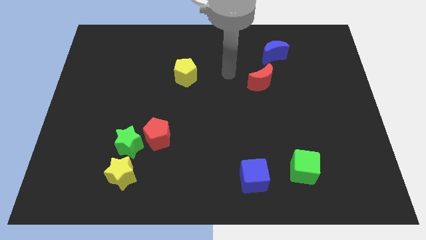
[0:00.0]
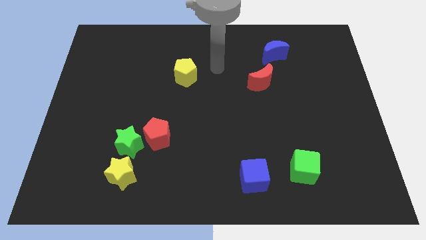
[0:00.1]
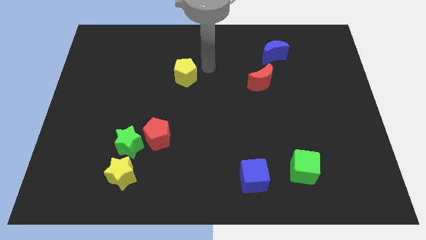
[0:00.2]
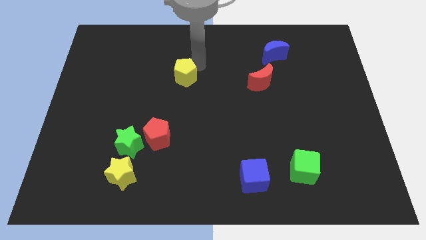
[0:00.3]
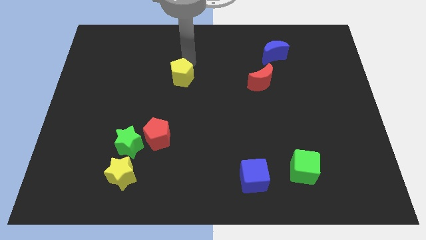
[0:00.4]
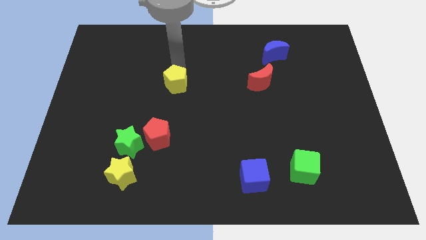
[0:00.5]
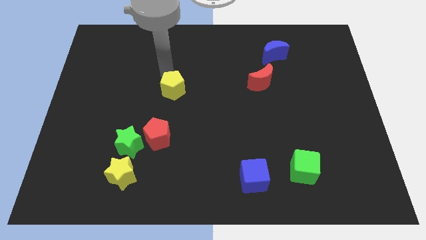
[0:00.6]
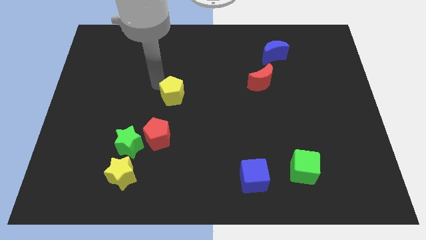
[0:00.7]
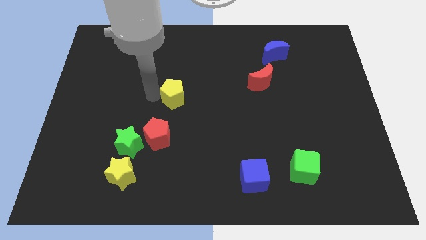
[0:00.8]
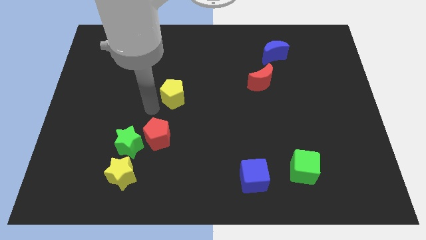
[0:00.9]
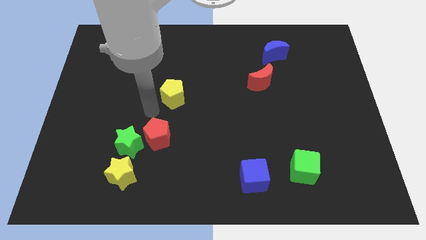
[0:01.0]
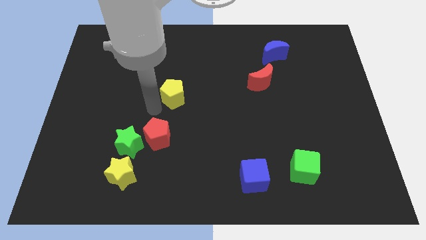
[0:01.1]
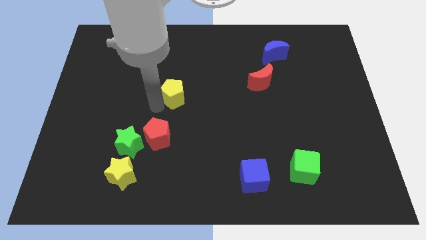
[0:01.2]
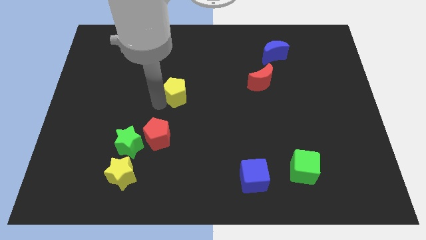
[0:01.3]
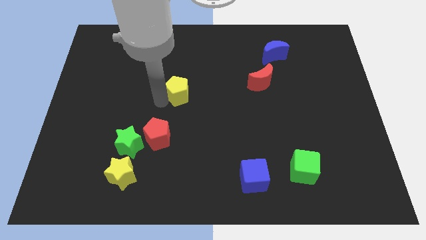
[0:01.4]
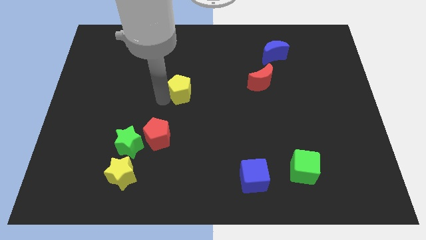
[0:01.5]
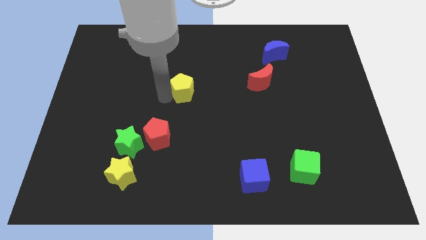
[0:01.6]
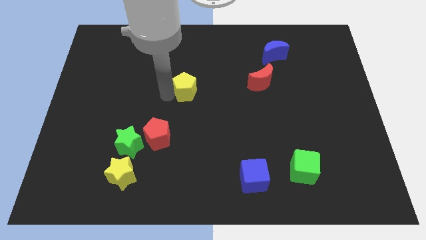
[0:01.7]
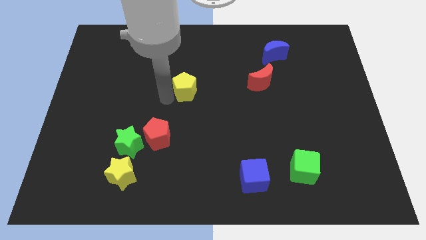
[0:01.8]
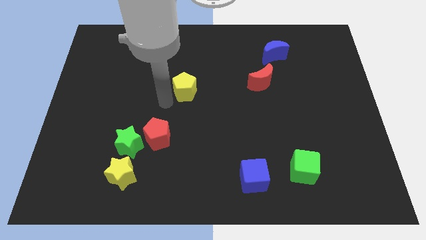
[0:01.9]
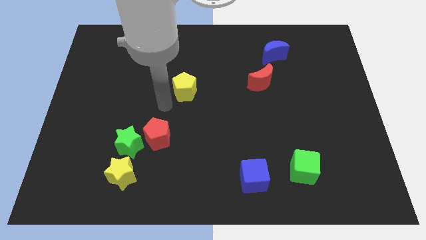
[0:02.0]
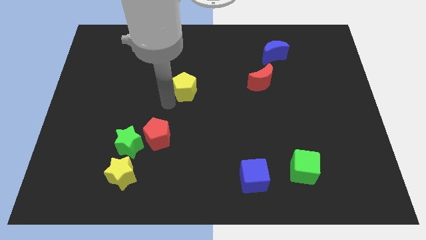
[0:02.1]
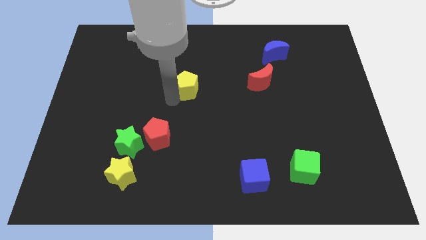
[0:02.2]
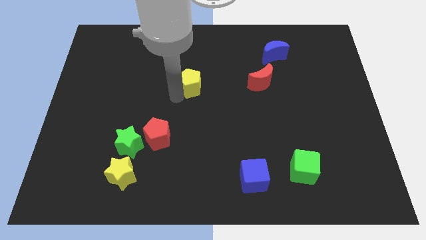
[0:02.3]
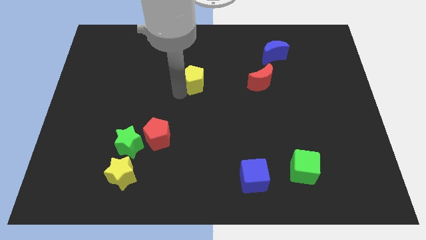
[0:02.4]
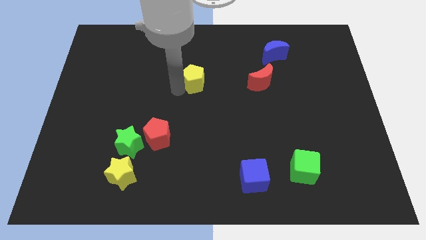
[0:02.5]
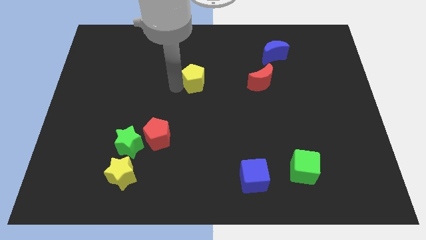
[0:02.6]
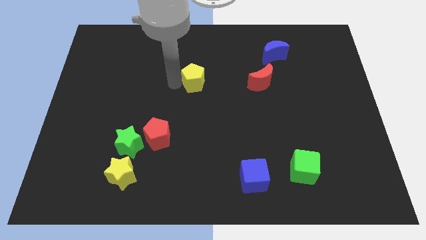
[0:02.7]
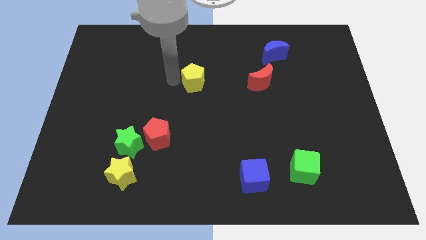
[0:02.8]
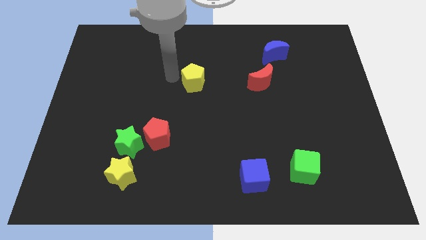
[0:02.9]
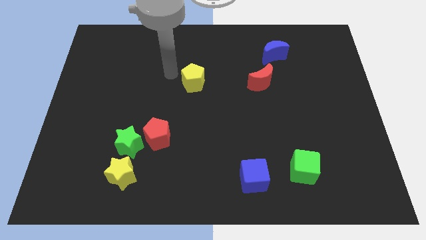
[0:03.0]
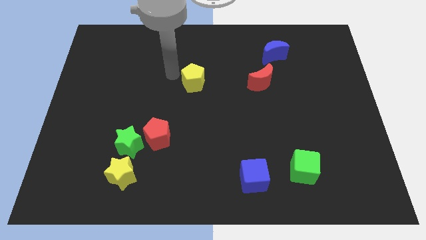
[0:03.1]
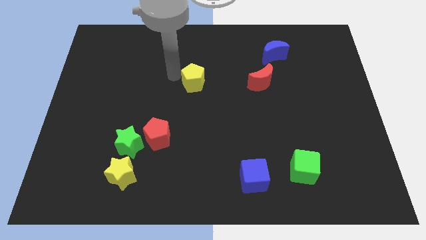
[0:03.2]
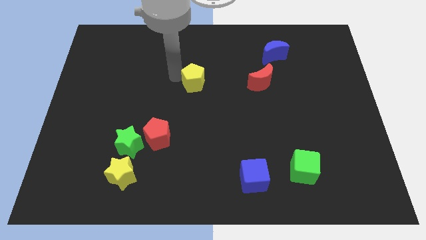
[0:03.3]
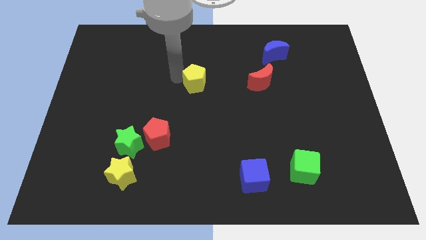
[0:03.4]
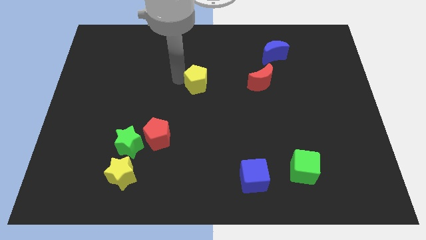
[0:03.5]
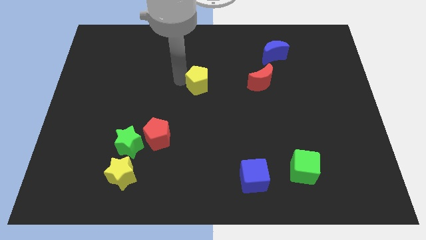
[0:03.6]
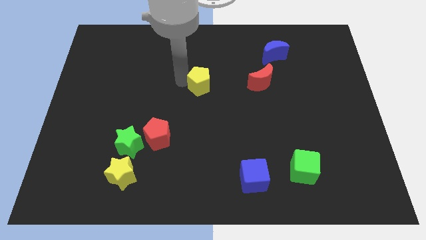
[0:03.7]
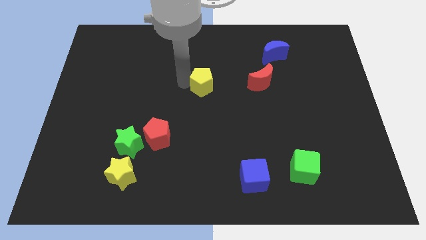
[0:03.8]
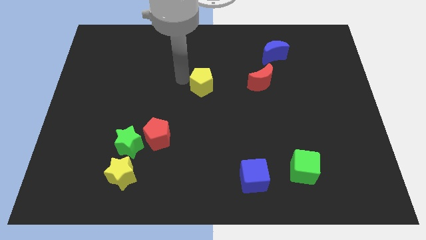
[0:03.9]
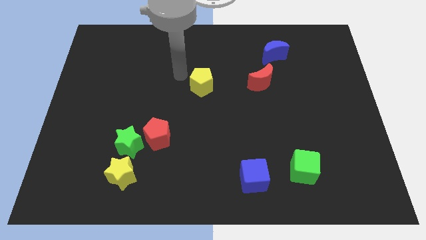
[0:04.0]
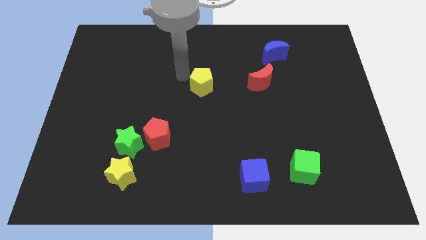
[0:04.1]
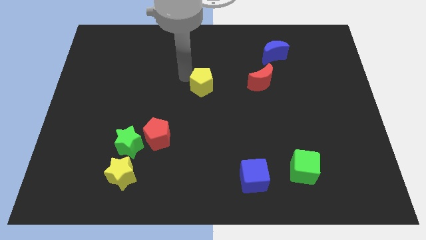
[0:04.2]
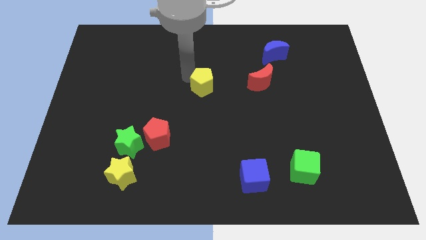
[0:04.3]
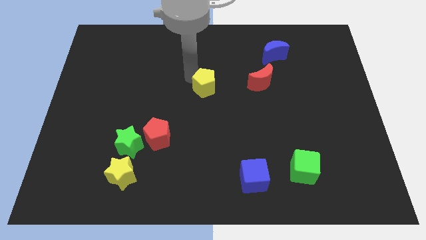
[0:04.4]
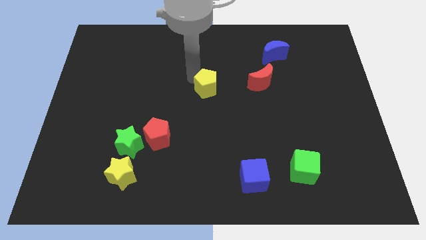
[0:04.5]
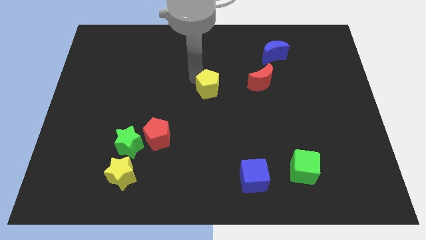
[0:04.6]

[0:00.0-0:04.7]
move the yellow pentagon diagonally down and right a little bit

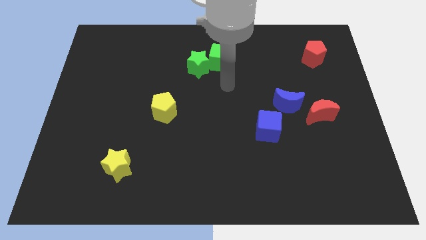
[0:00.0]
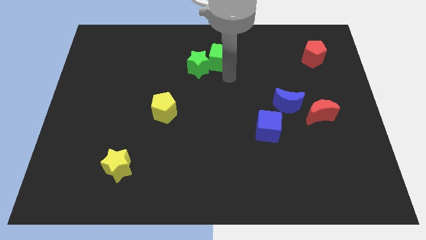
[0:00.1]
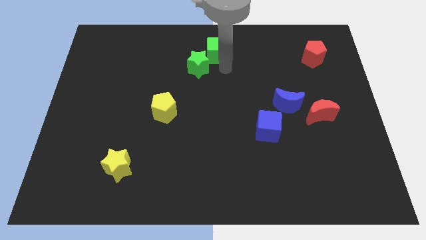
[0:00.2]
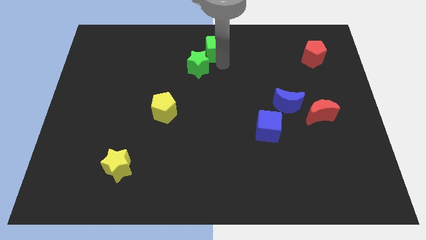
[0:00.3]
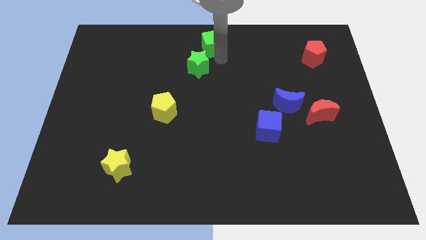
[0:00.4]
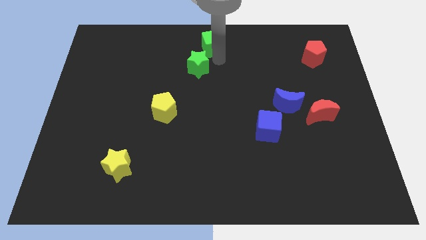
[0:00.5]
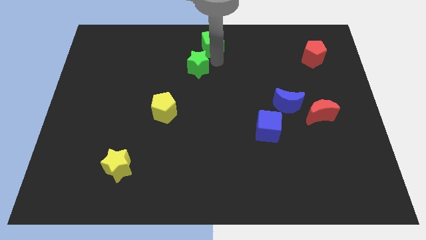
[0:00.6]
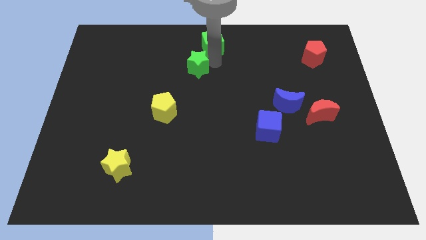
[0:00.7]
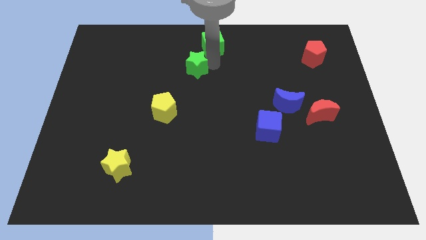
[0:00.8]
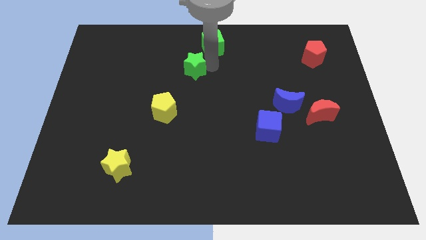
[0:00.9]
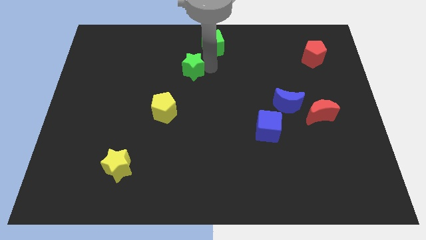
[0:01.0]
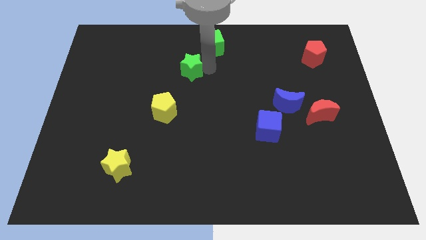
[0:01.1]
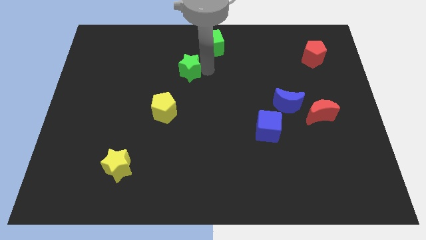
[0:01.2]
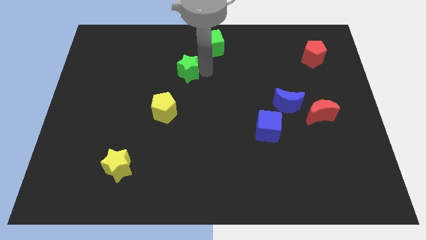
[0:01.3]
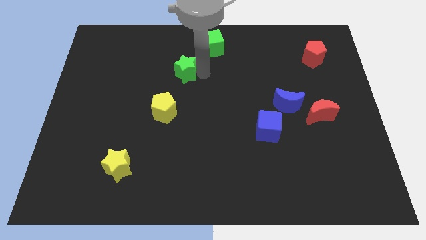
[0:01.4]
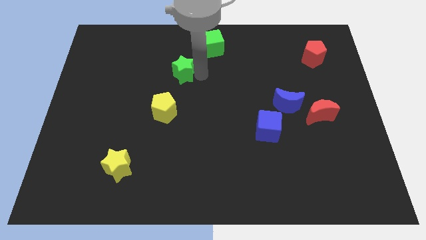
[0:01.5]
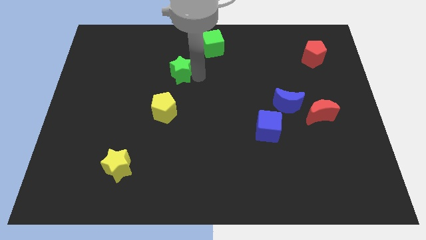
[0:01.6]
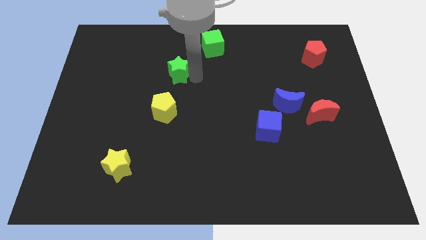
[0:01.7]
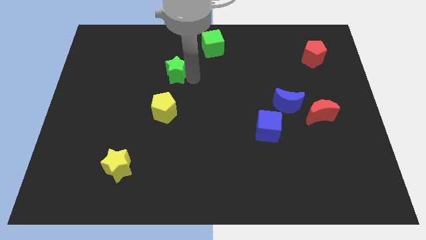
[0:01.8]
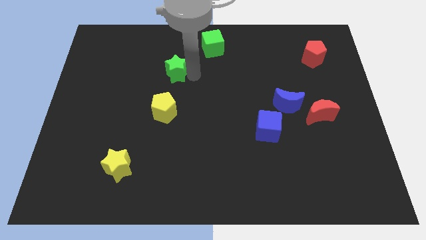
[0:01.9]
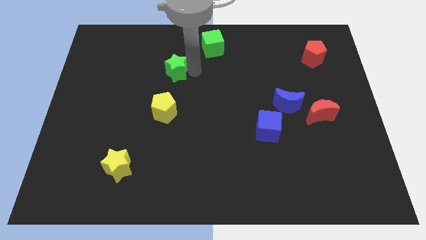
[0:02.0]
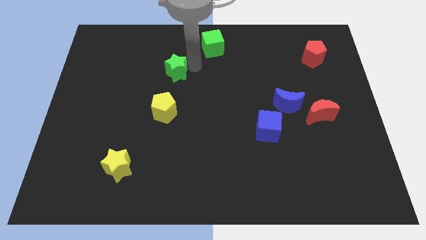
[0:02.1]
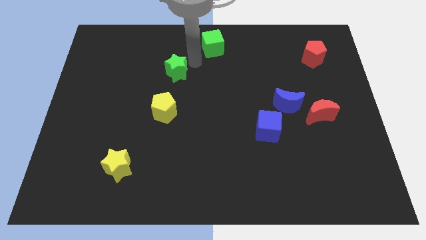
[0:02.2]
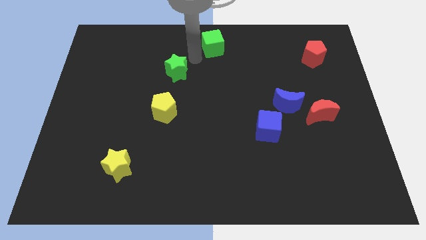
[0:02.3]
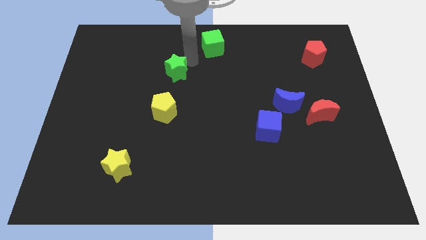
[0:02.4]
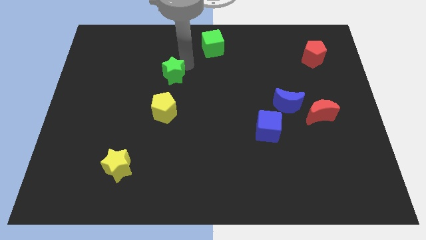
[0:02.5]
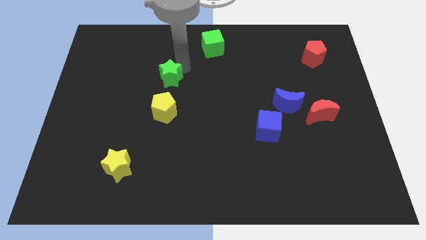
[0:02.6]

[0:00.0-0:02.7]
move the green star downwards and then to the left a little bit
